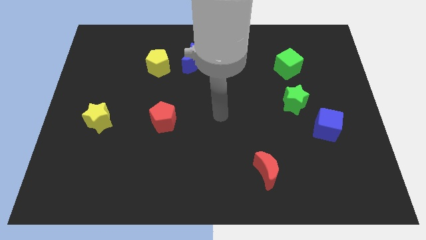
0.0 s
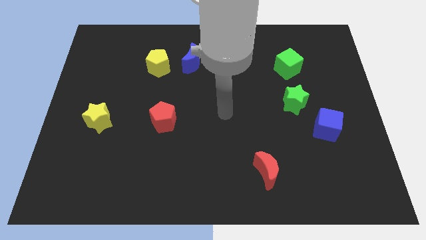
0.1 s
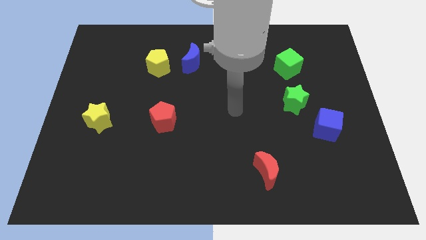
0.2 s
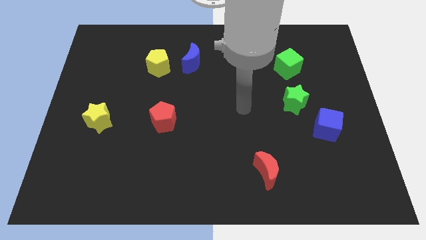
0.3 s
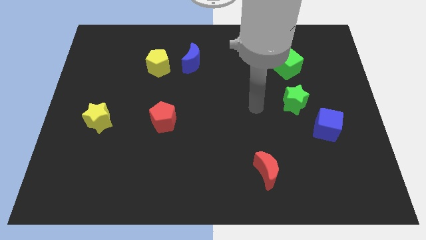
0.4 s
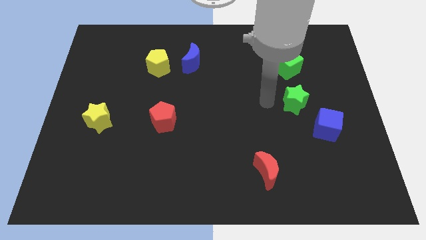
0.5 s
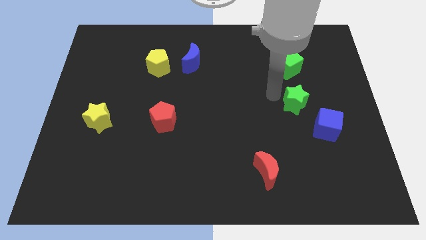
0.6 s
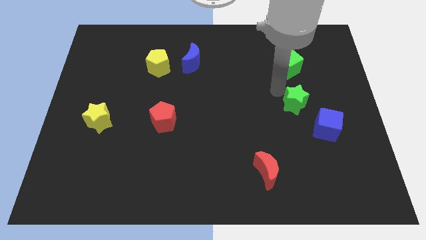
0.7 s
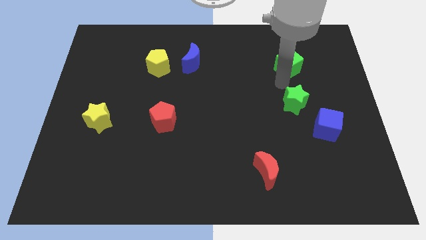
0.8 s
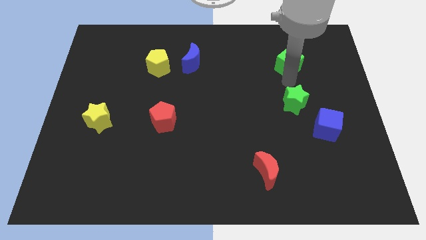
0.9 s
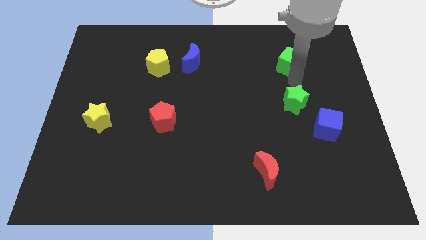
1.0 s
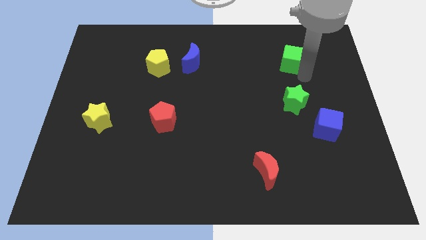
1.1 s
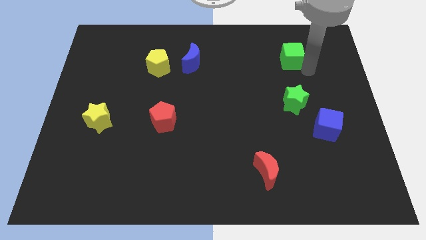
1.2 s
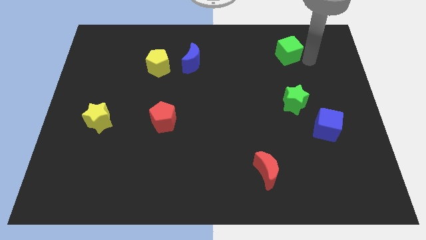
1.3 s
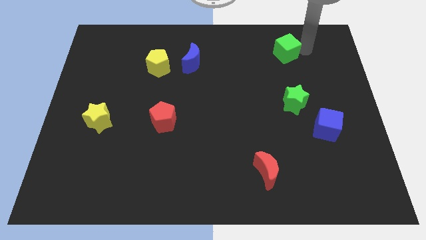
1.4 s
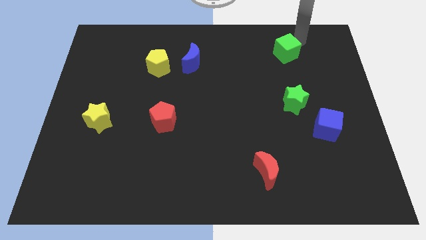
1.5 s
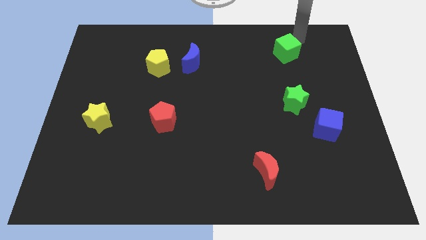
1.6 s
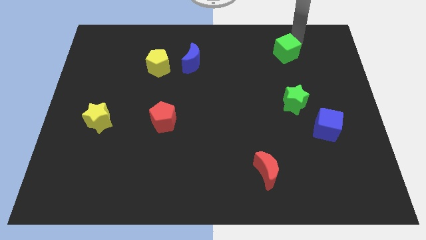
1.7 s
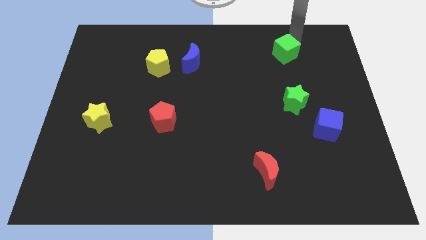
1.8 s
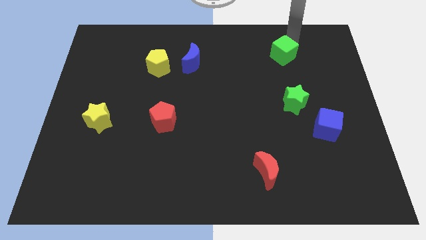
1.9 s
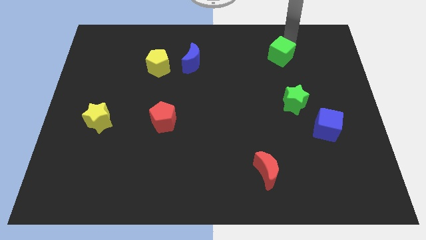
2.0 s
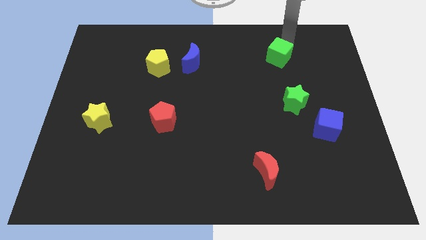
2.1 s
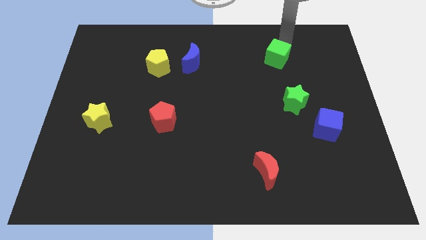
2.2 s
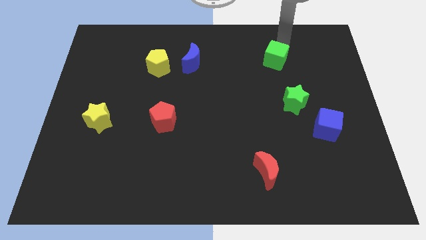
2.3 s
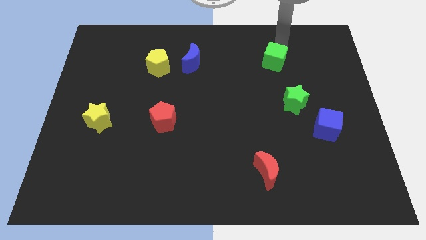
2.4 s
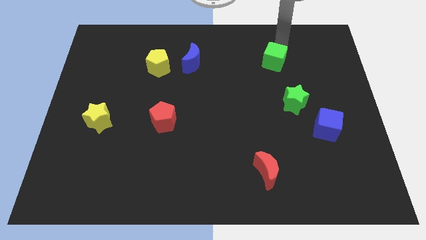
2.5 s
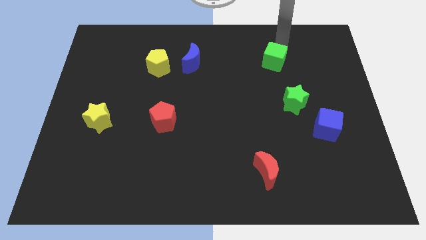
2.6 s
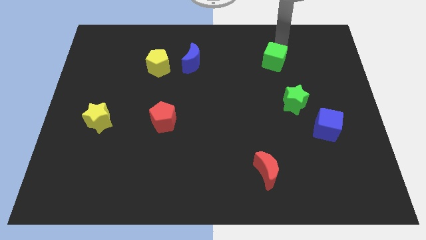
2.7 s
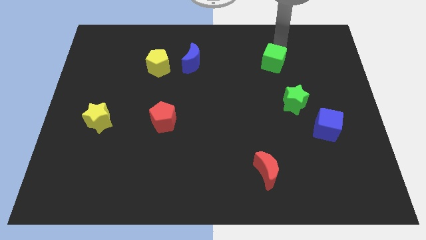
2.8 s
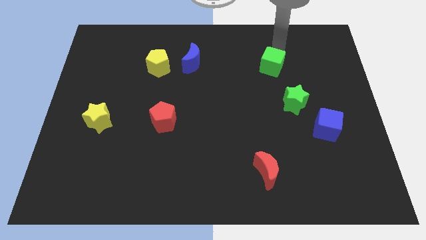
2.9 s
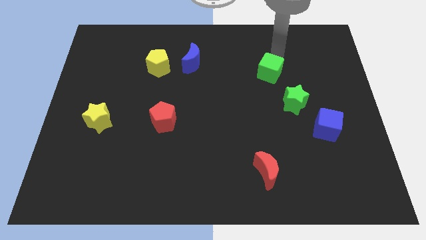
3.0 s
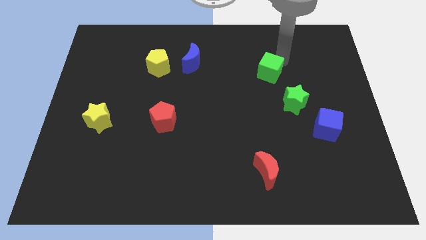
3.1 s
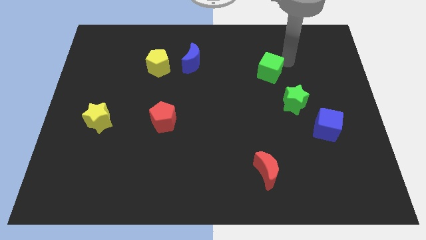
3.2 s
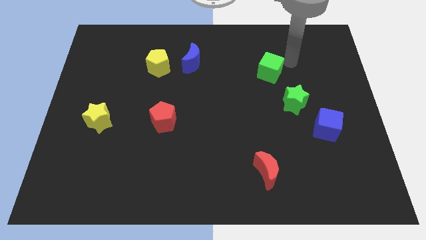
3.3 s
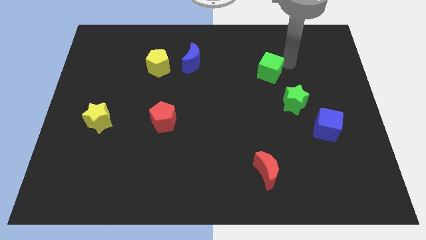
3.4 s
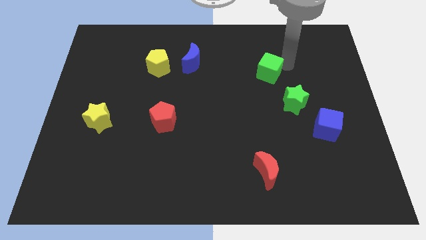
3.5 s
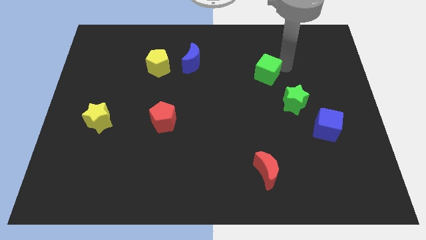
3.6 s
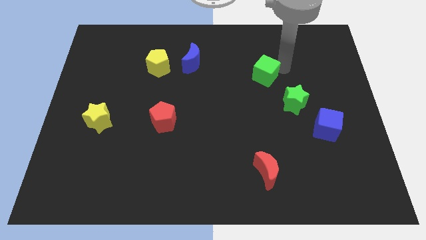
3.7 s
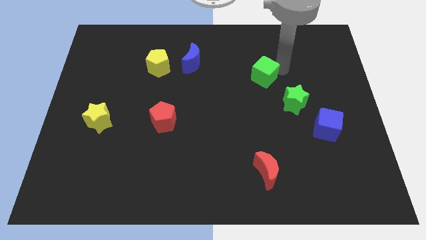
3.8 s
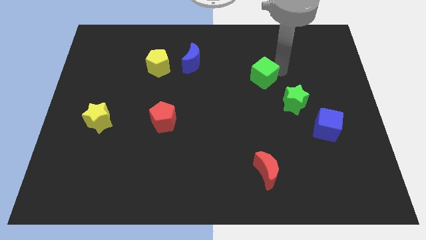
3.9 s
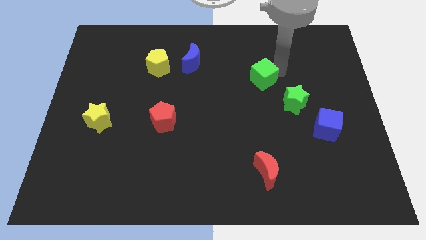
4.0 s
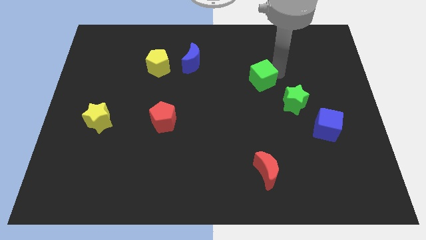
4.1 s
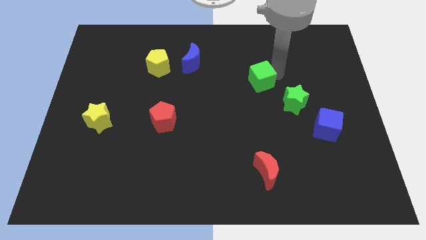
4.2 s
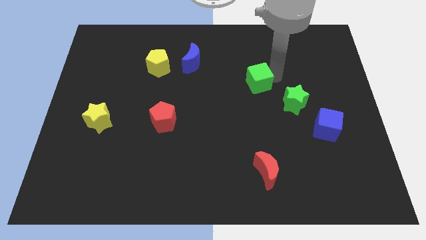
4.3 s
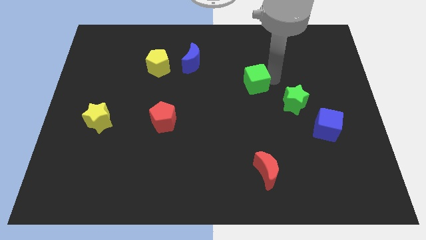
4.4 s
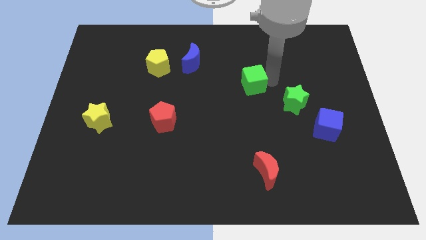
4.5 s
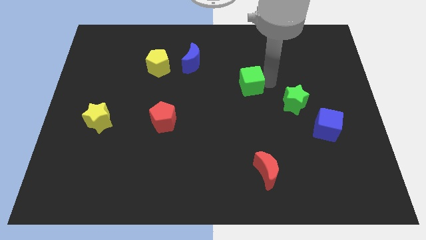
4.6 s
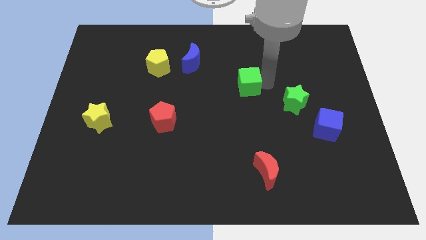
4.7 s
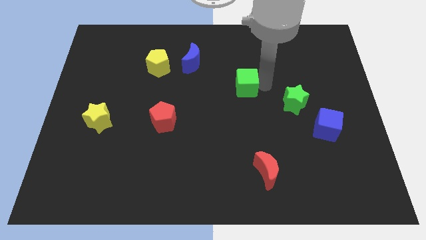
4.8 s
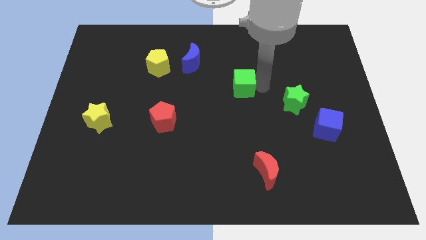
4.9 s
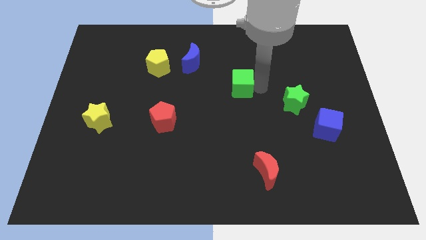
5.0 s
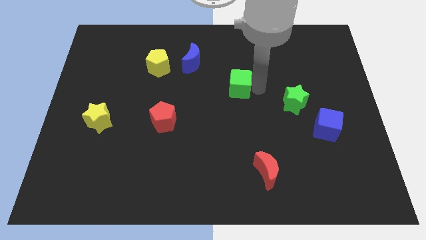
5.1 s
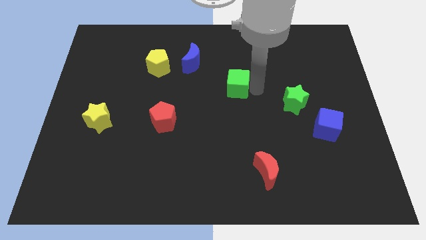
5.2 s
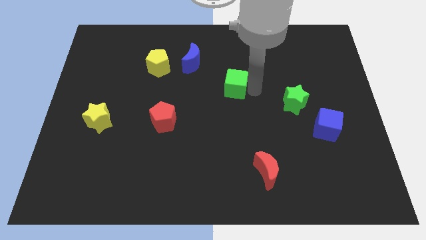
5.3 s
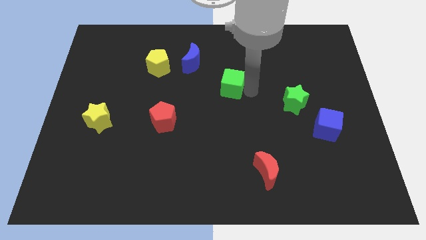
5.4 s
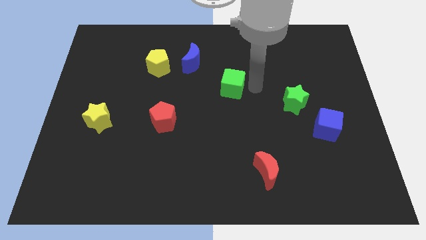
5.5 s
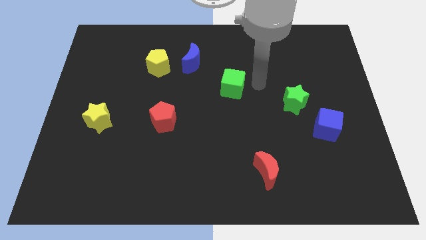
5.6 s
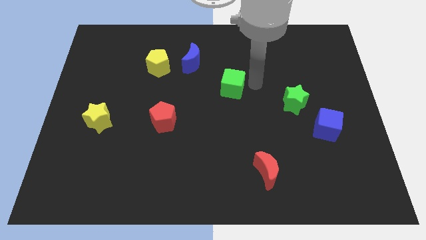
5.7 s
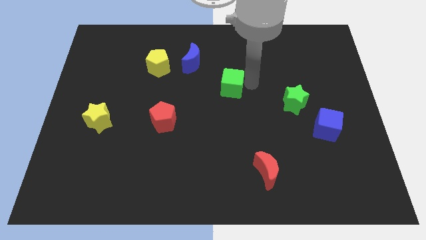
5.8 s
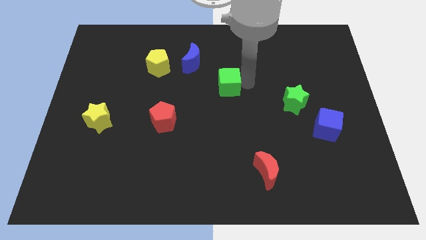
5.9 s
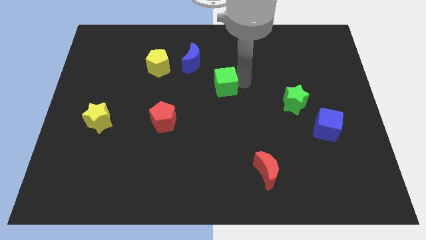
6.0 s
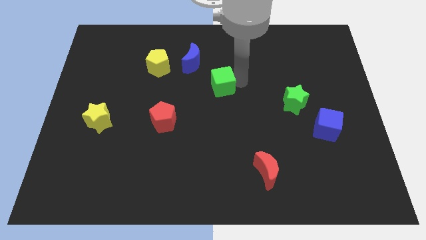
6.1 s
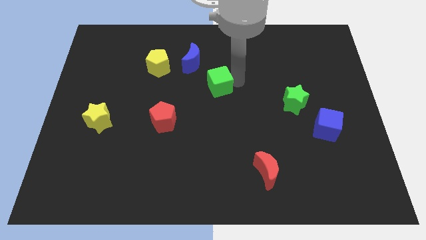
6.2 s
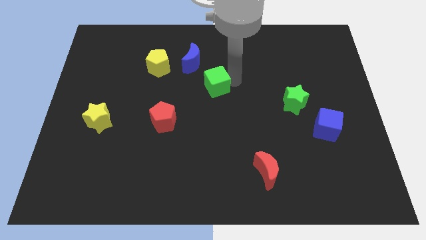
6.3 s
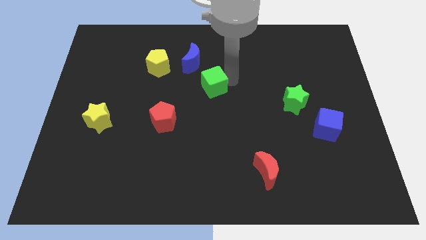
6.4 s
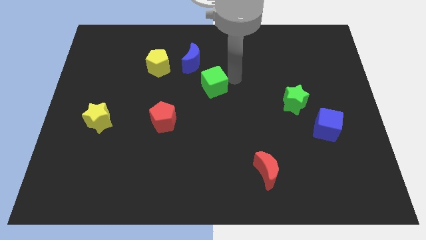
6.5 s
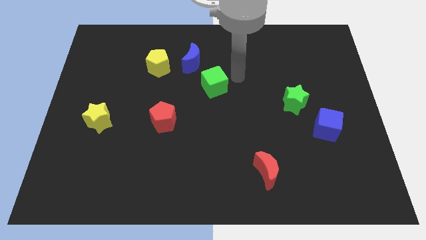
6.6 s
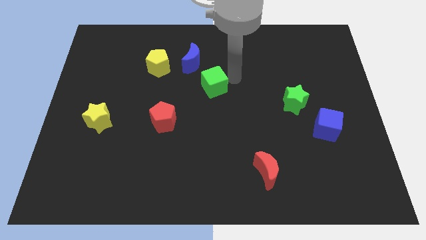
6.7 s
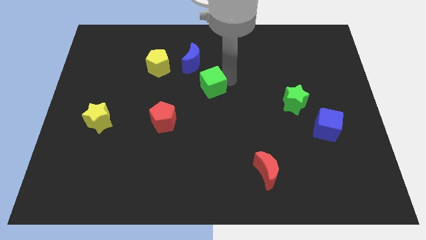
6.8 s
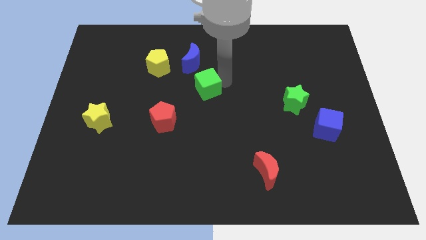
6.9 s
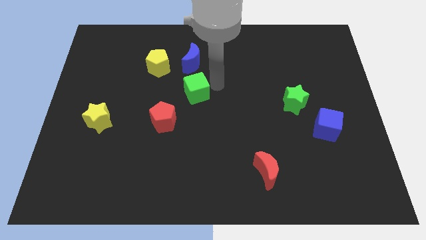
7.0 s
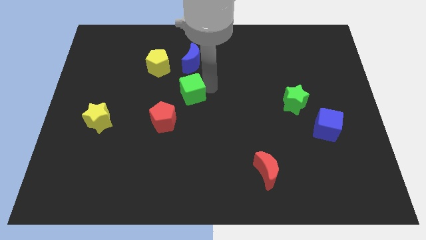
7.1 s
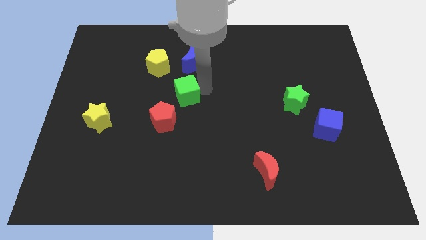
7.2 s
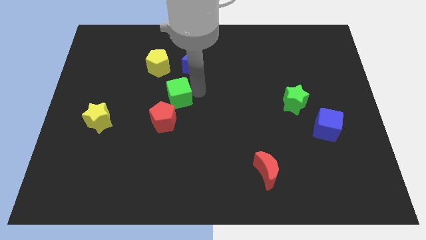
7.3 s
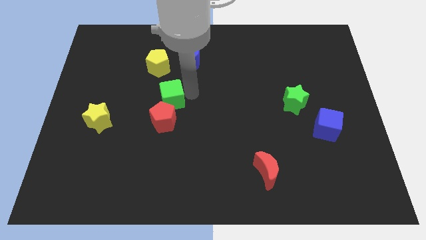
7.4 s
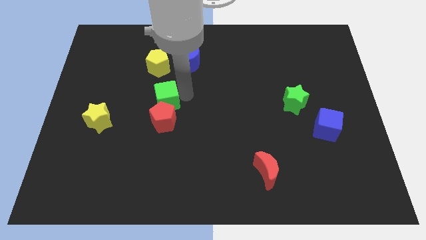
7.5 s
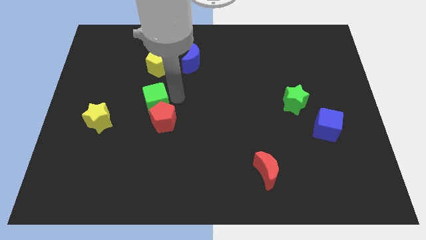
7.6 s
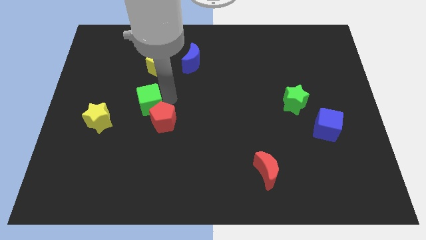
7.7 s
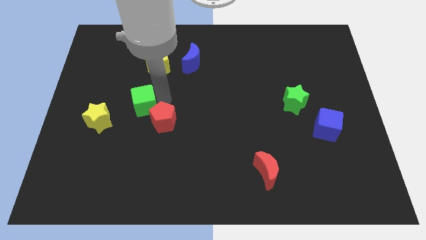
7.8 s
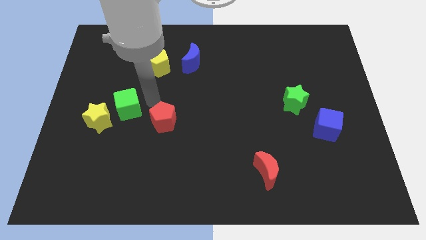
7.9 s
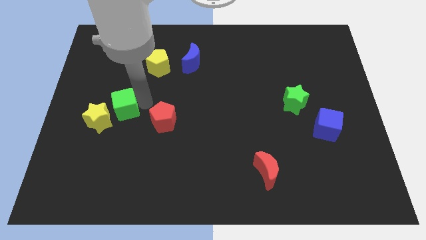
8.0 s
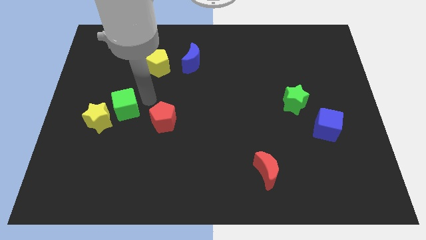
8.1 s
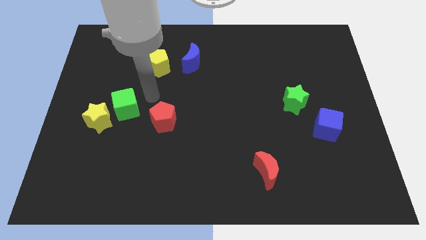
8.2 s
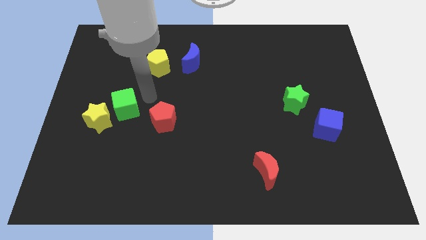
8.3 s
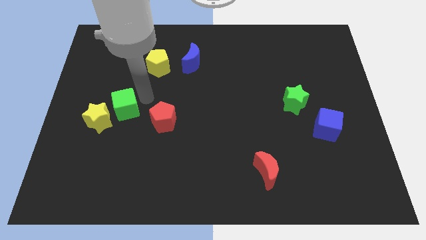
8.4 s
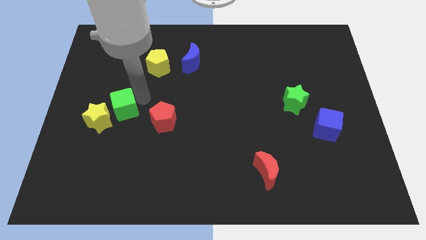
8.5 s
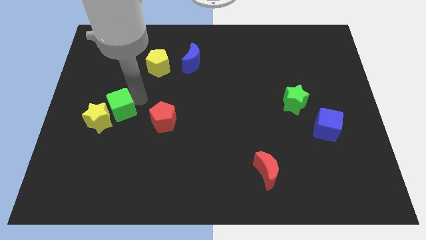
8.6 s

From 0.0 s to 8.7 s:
slide the green cube close to the yellow star
